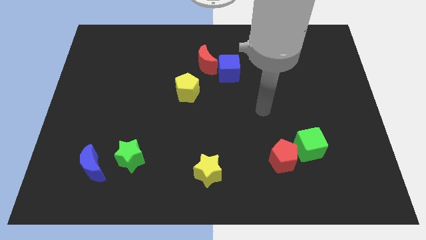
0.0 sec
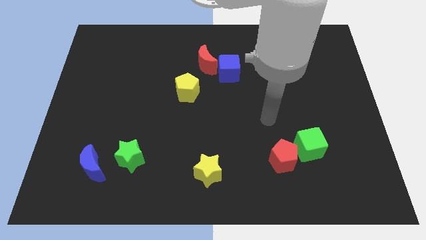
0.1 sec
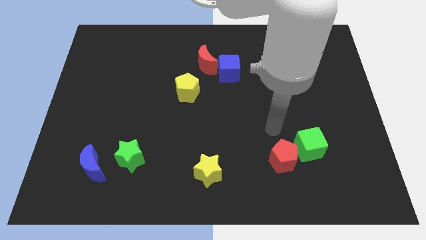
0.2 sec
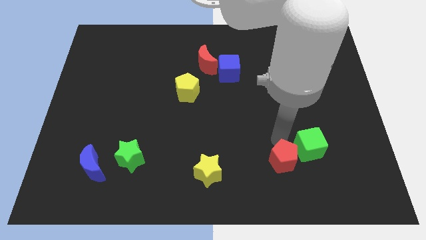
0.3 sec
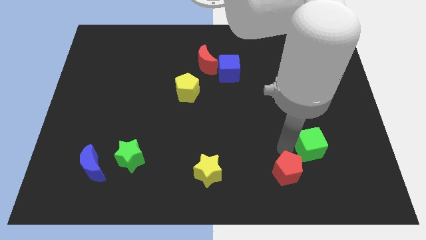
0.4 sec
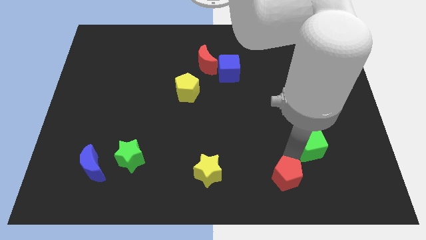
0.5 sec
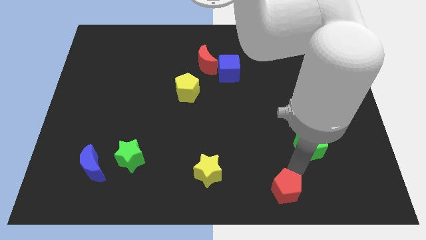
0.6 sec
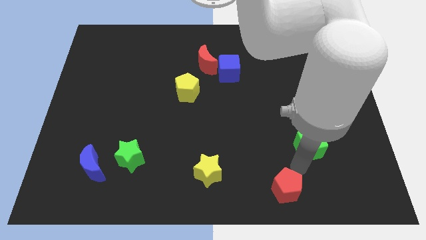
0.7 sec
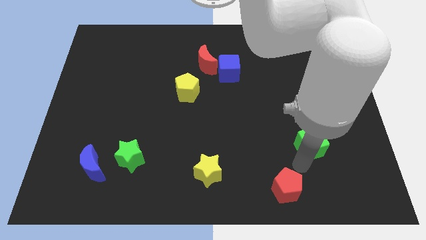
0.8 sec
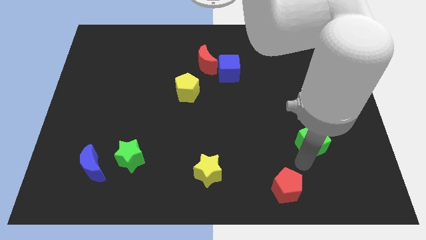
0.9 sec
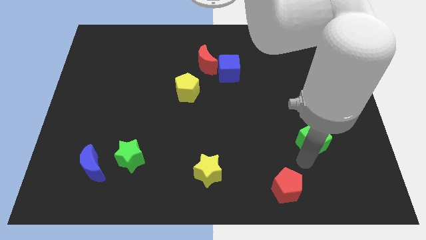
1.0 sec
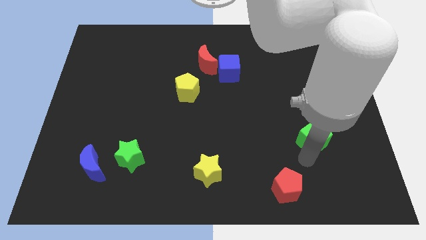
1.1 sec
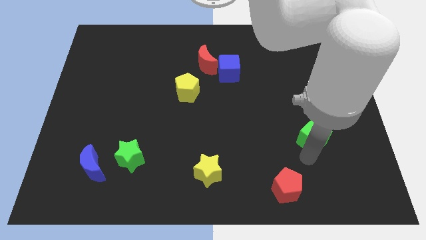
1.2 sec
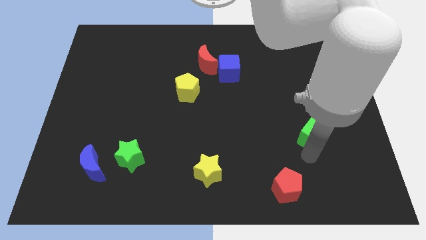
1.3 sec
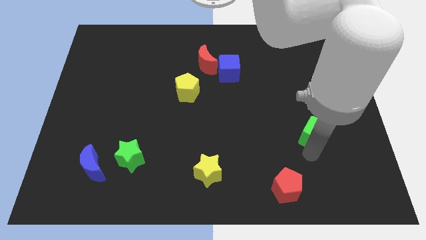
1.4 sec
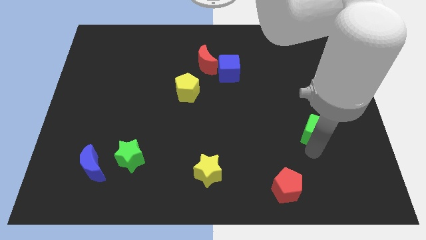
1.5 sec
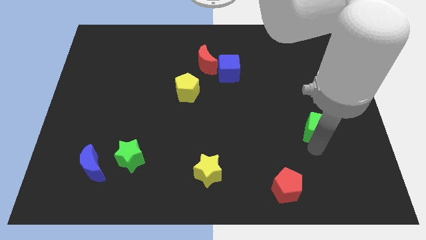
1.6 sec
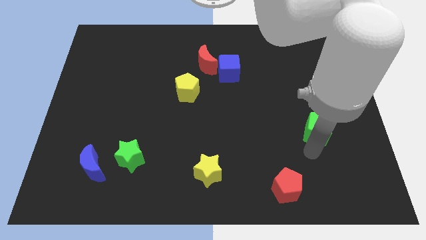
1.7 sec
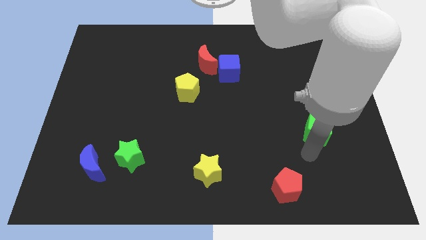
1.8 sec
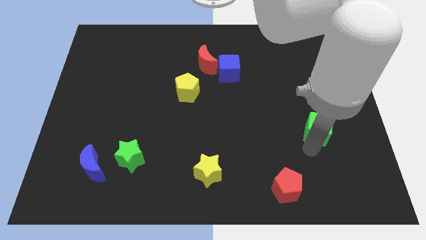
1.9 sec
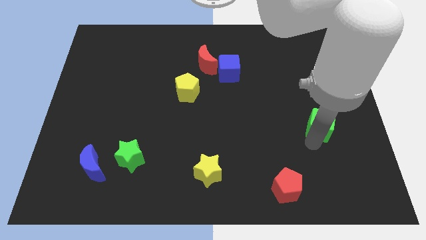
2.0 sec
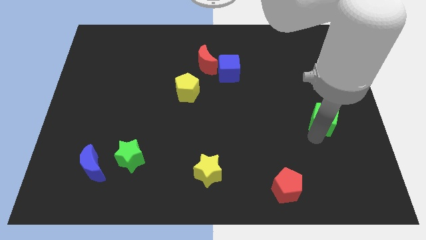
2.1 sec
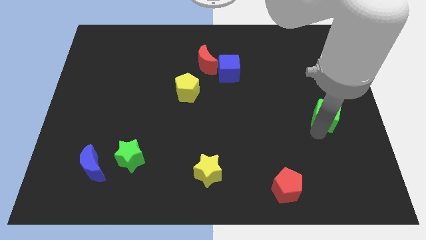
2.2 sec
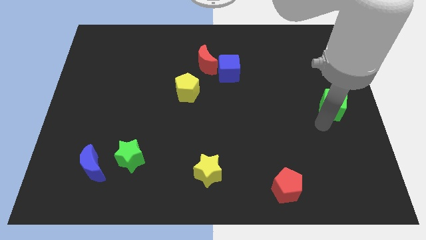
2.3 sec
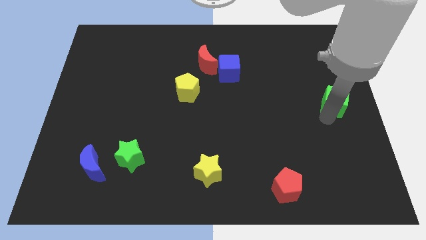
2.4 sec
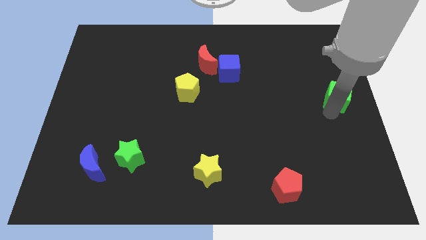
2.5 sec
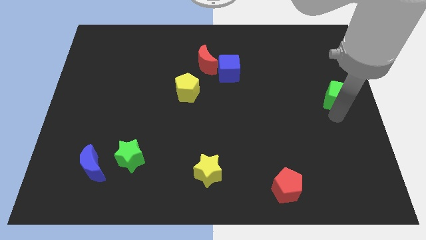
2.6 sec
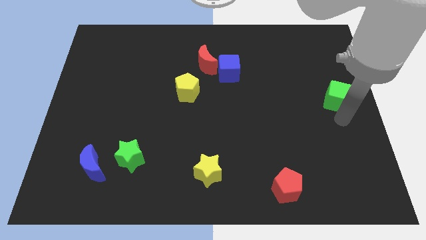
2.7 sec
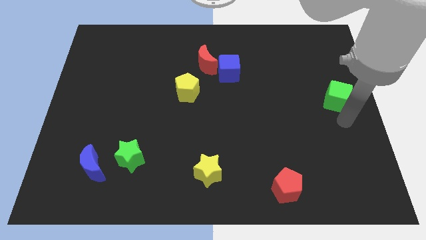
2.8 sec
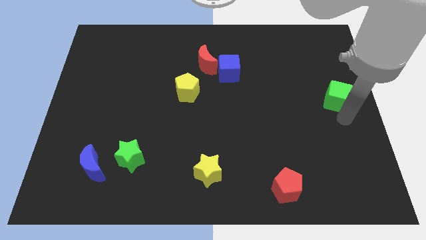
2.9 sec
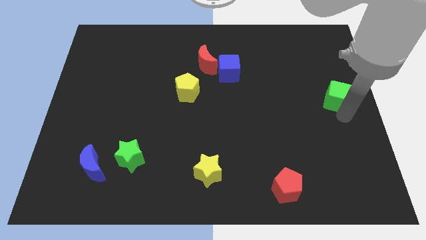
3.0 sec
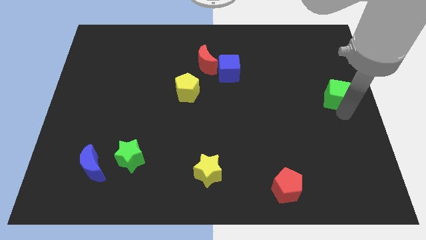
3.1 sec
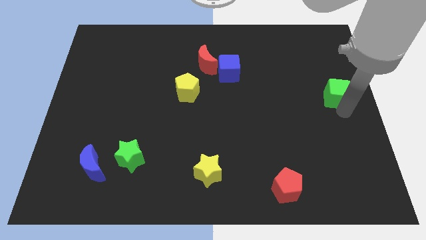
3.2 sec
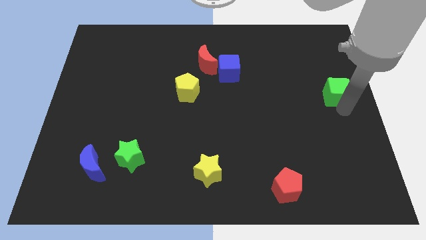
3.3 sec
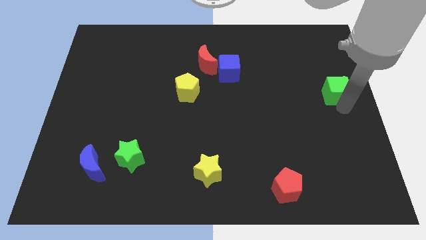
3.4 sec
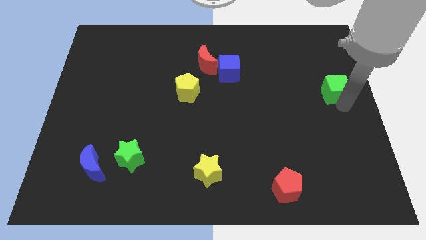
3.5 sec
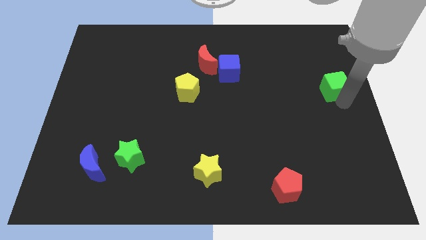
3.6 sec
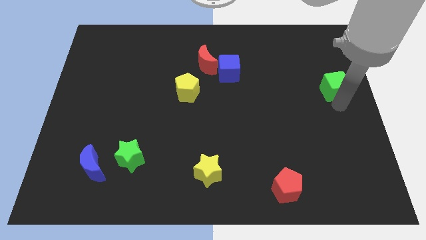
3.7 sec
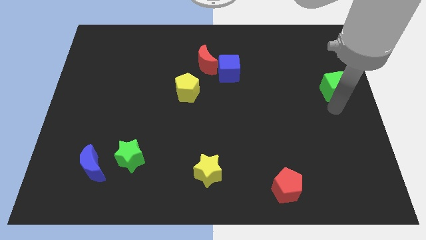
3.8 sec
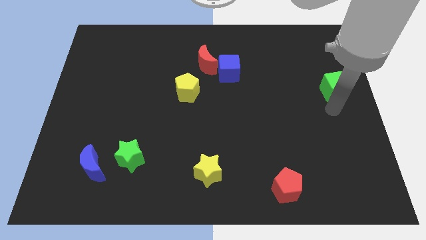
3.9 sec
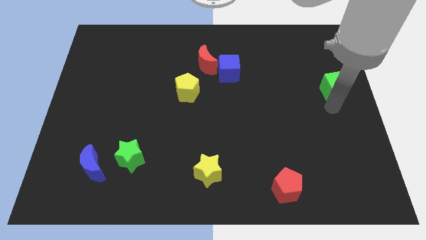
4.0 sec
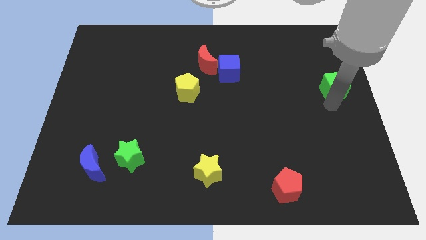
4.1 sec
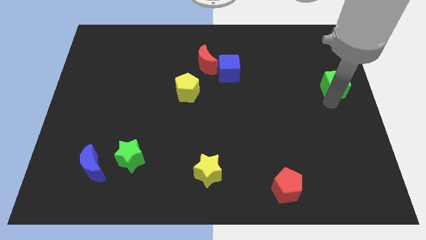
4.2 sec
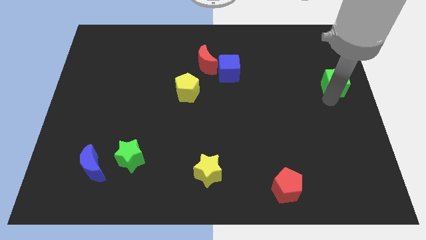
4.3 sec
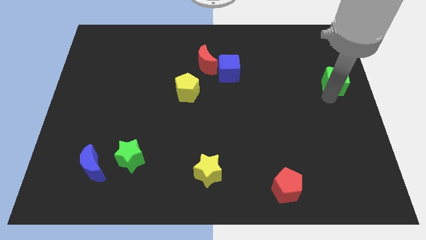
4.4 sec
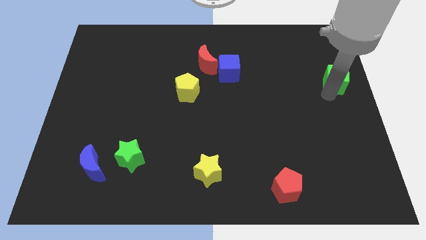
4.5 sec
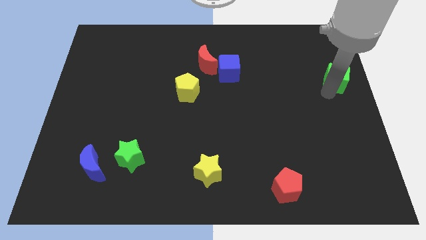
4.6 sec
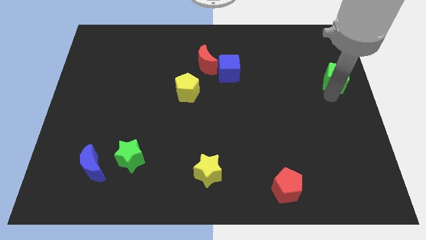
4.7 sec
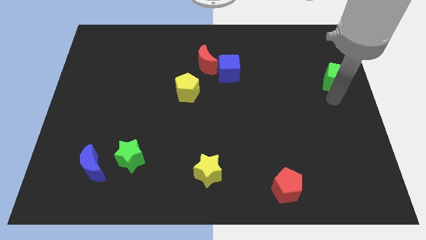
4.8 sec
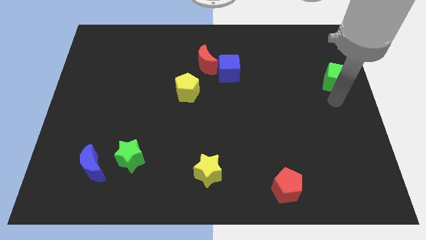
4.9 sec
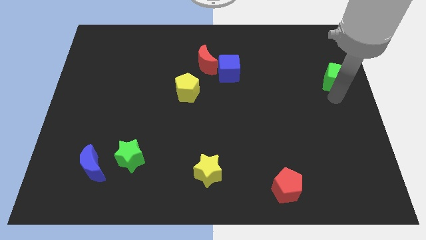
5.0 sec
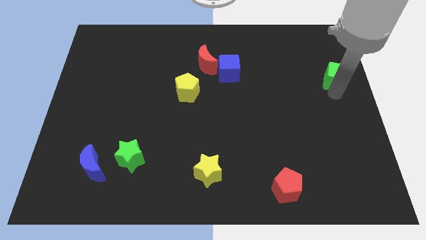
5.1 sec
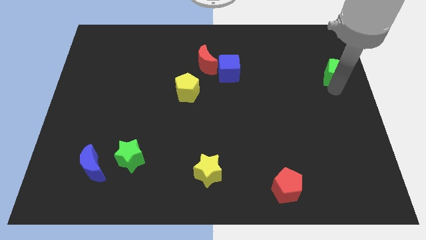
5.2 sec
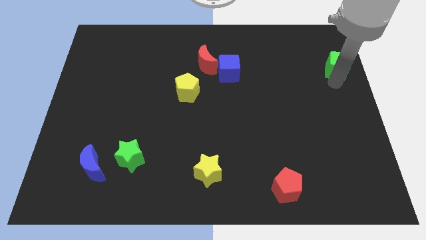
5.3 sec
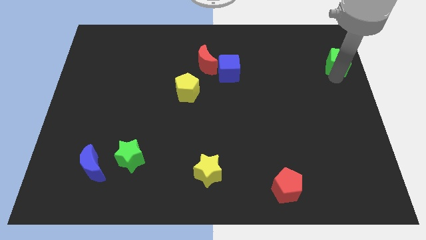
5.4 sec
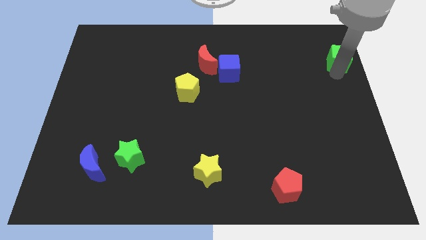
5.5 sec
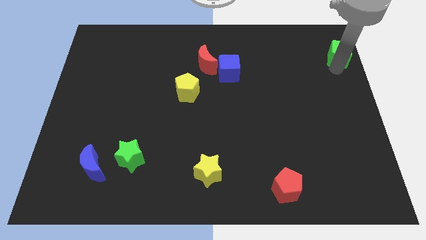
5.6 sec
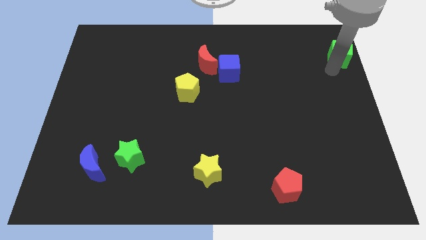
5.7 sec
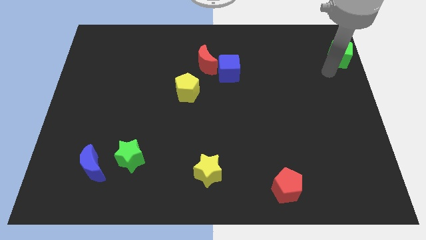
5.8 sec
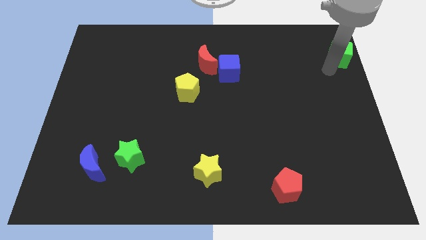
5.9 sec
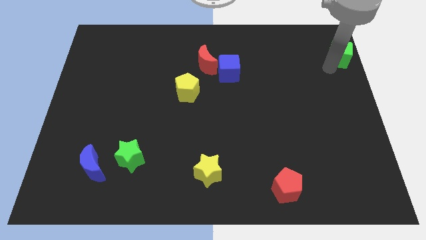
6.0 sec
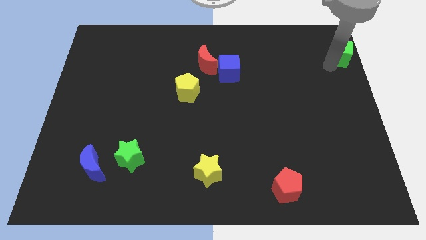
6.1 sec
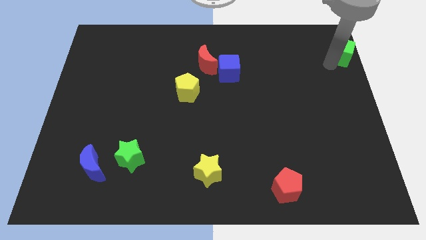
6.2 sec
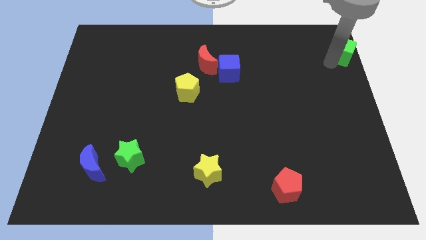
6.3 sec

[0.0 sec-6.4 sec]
push the green cube to the top right of the board

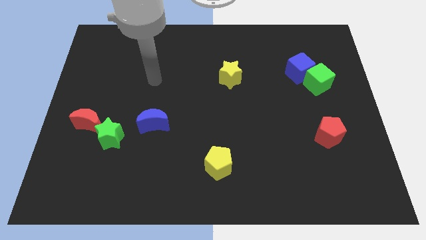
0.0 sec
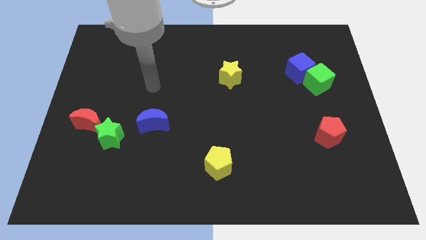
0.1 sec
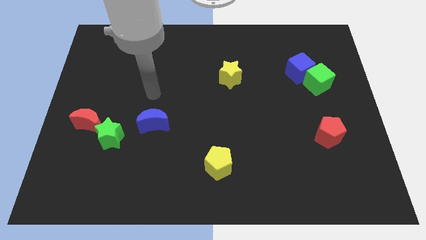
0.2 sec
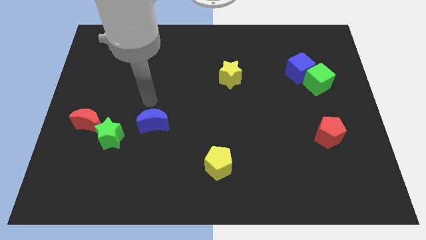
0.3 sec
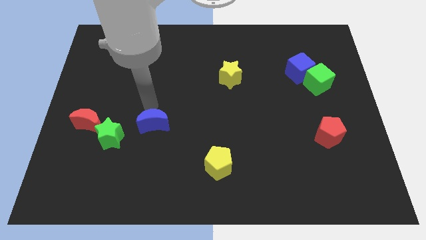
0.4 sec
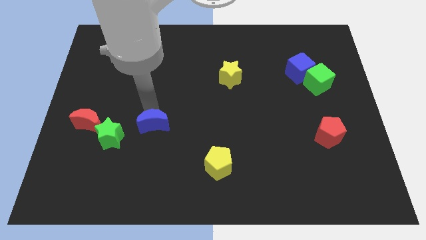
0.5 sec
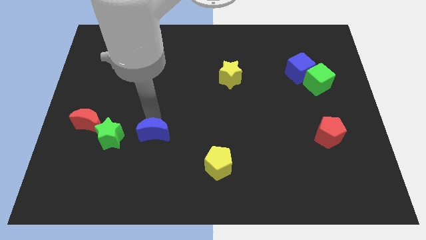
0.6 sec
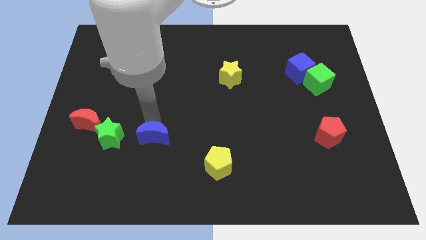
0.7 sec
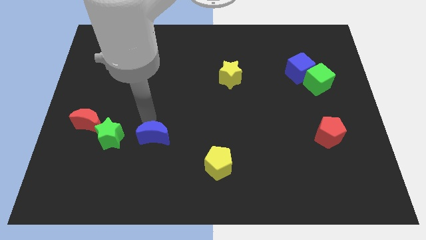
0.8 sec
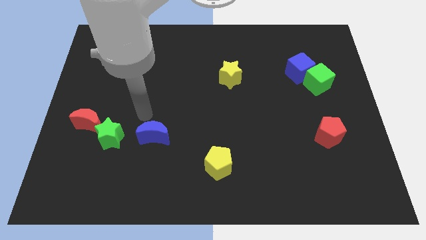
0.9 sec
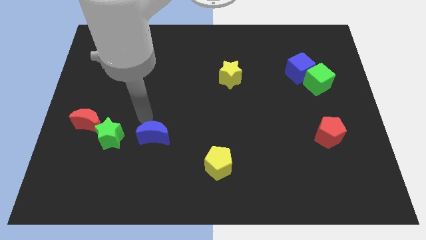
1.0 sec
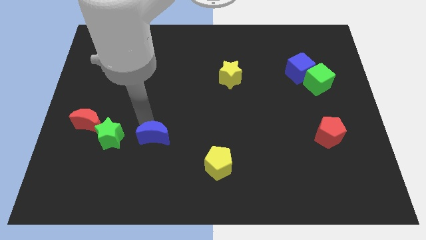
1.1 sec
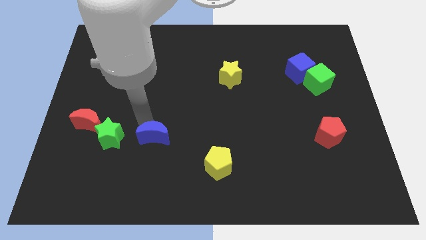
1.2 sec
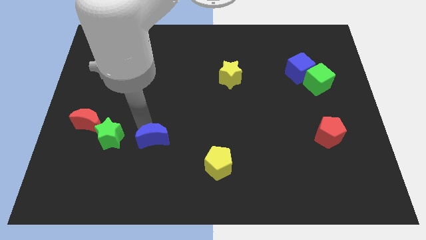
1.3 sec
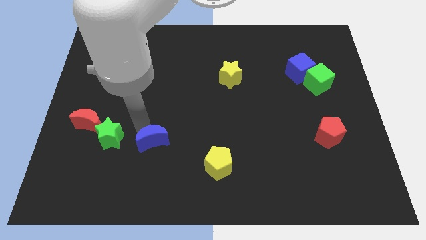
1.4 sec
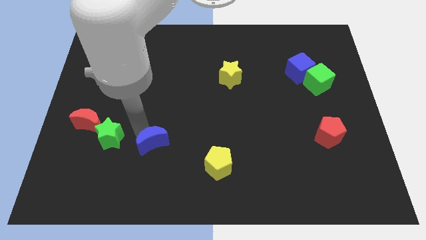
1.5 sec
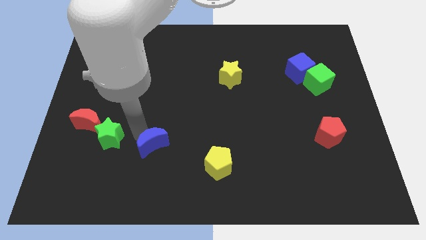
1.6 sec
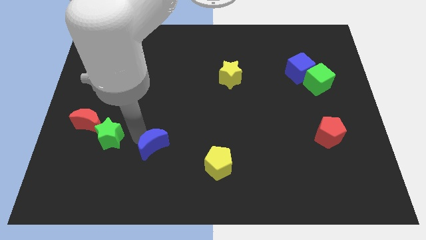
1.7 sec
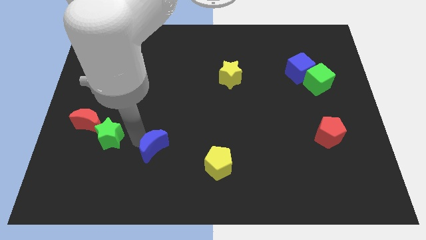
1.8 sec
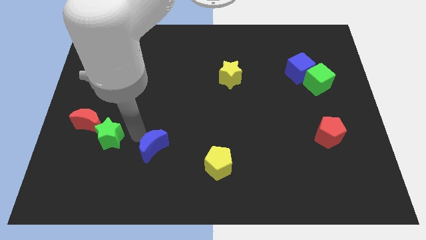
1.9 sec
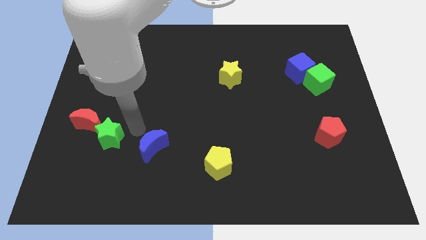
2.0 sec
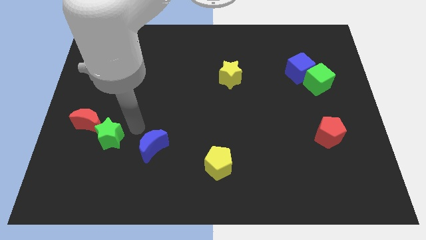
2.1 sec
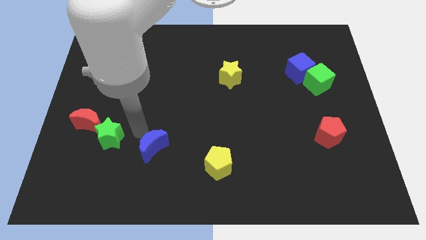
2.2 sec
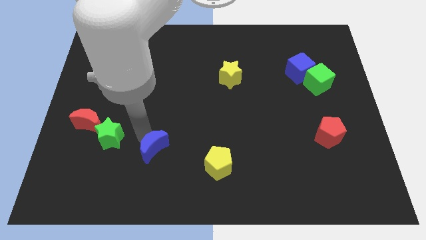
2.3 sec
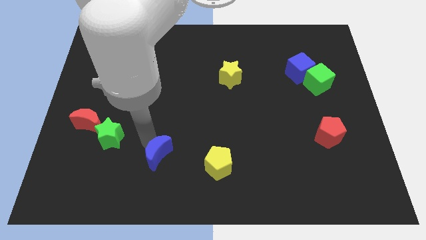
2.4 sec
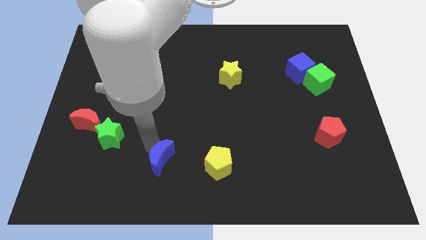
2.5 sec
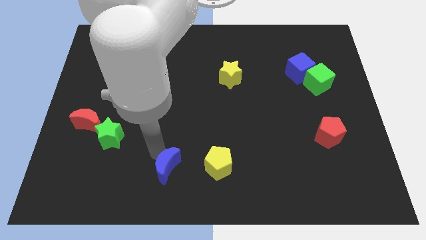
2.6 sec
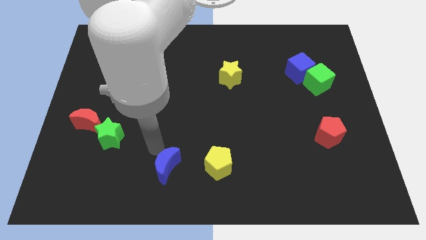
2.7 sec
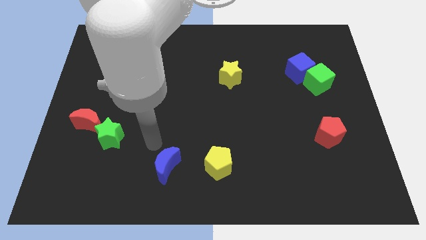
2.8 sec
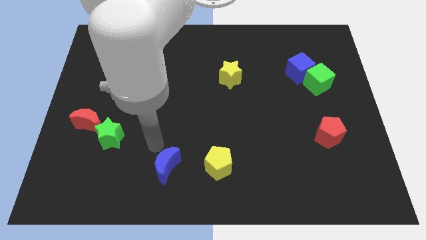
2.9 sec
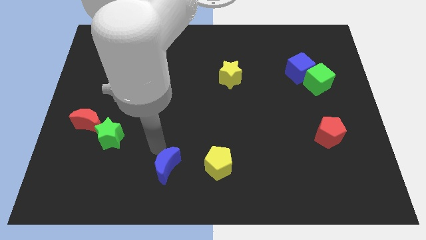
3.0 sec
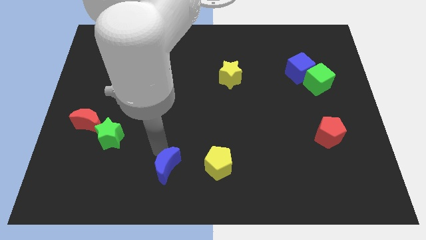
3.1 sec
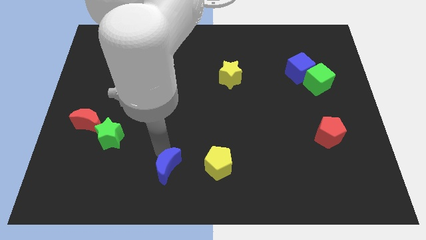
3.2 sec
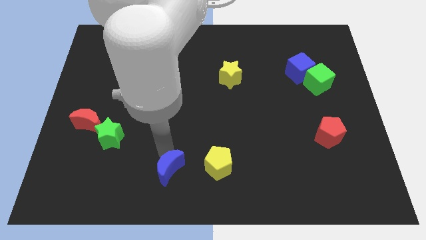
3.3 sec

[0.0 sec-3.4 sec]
slide the blue moon to the bottom
